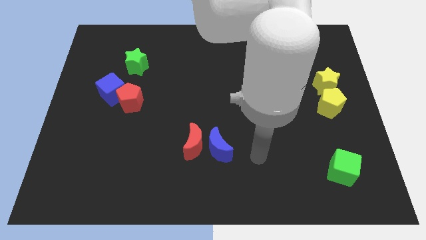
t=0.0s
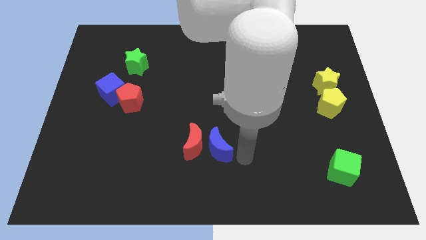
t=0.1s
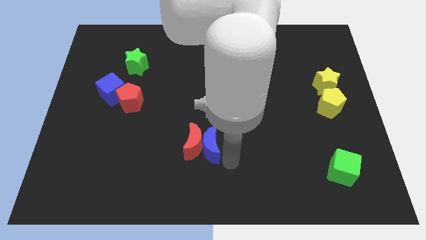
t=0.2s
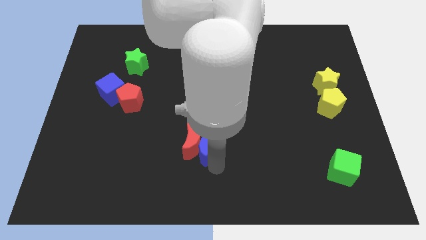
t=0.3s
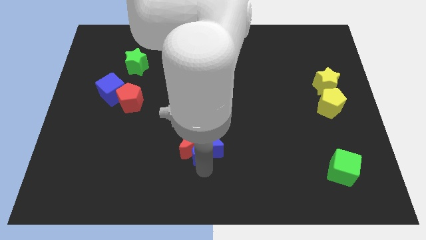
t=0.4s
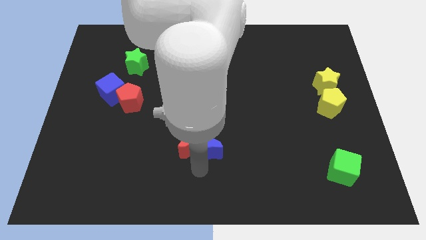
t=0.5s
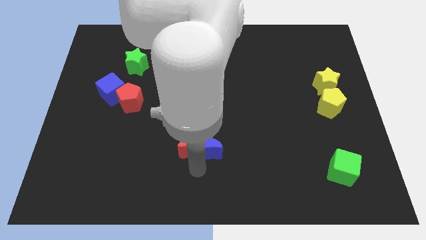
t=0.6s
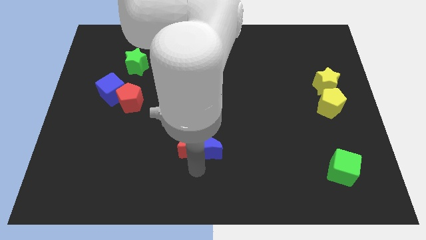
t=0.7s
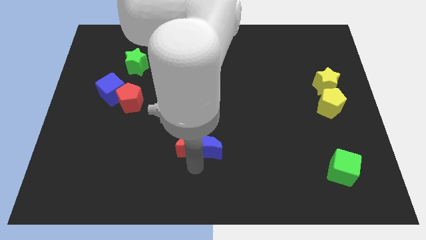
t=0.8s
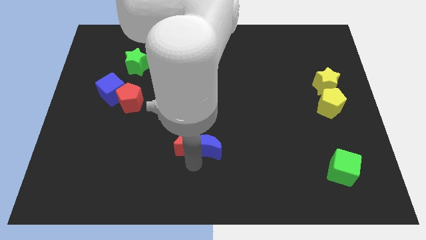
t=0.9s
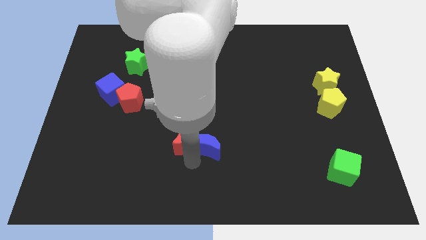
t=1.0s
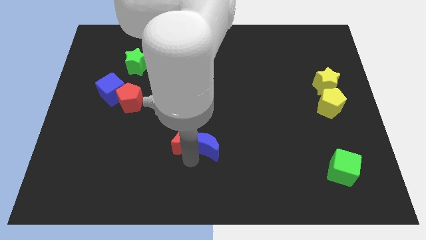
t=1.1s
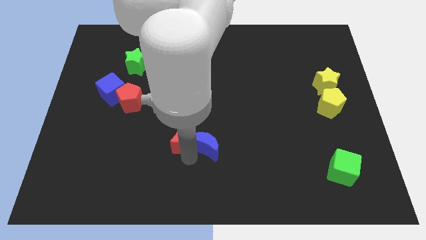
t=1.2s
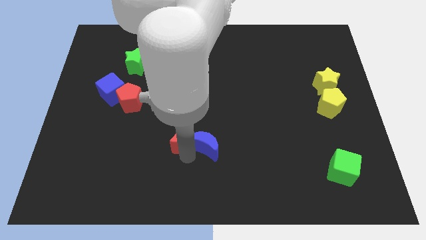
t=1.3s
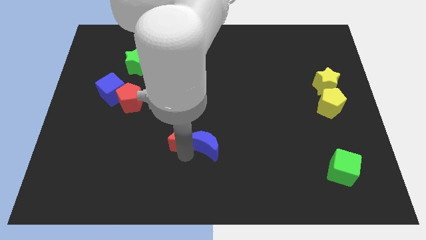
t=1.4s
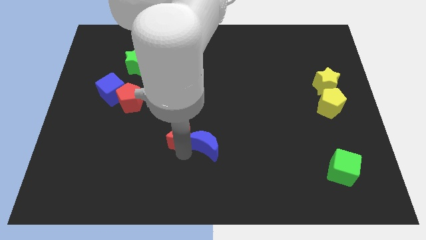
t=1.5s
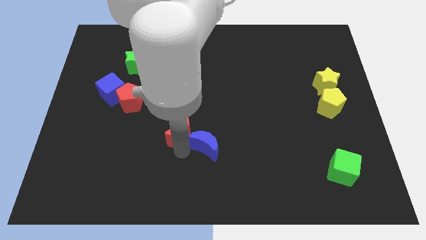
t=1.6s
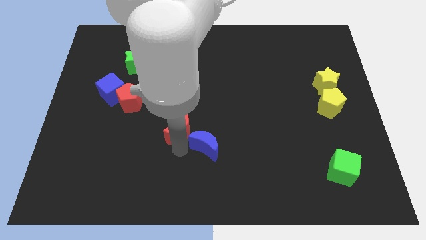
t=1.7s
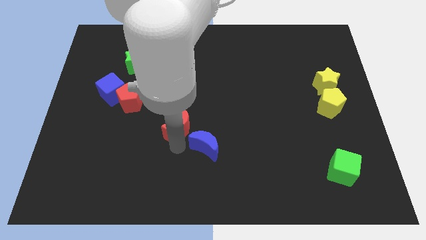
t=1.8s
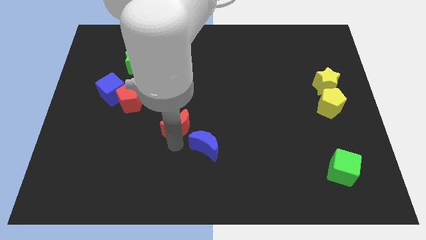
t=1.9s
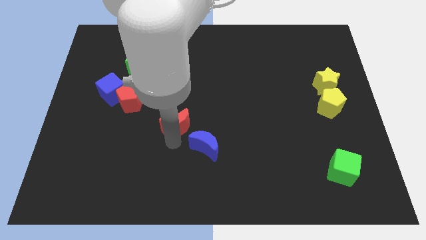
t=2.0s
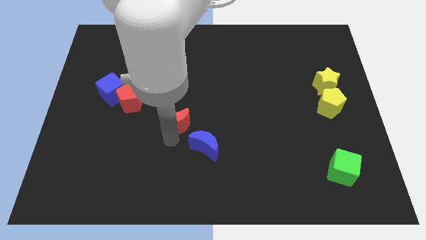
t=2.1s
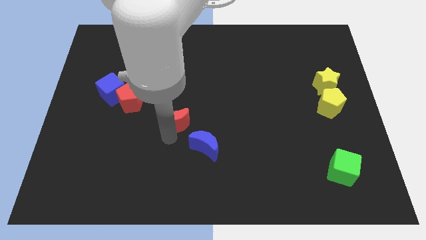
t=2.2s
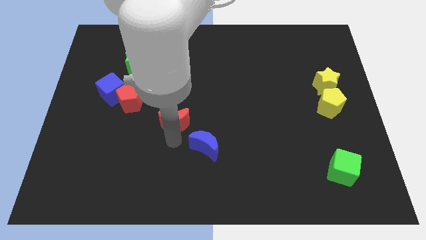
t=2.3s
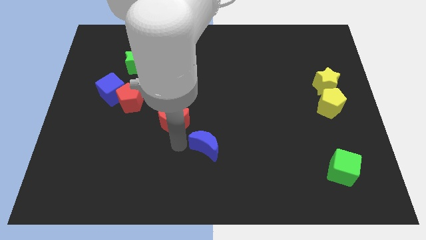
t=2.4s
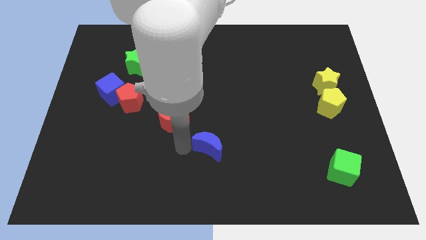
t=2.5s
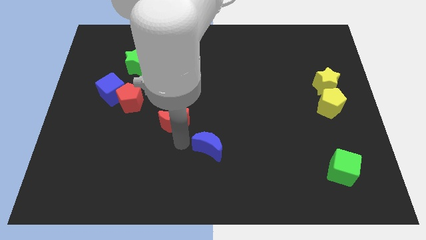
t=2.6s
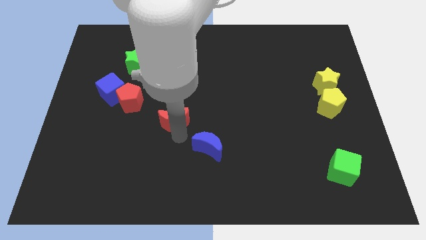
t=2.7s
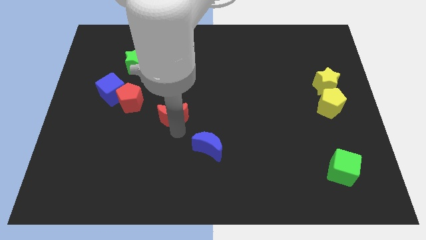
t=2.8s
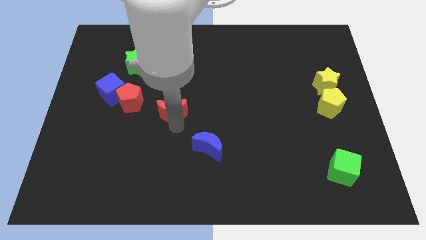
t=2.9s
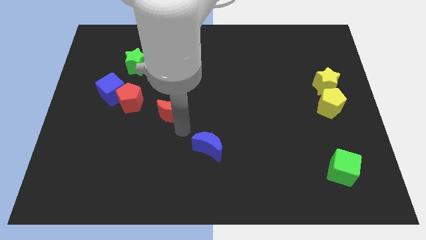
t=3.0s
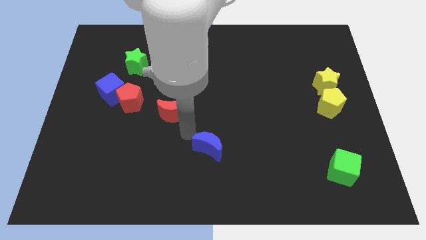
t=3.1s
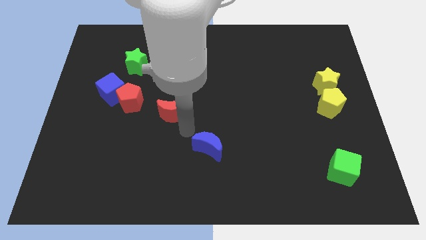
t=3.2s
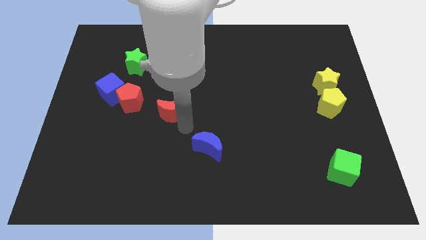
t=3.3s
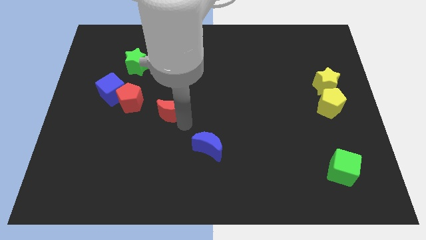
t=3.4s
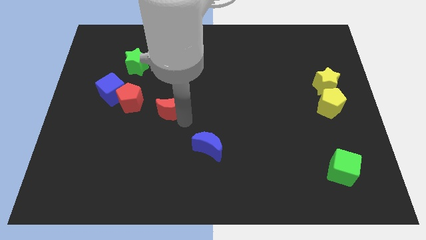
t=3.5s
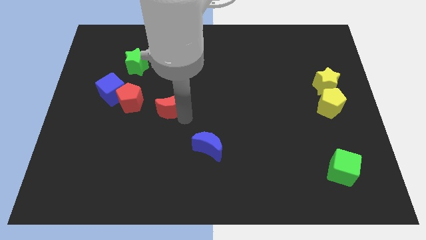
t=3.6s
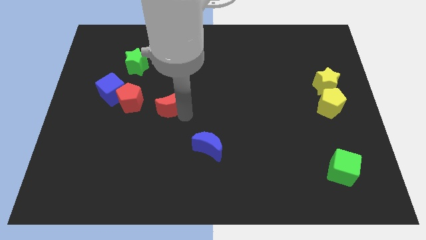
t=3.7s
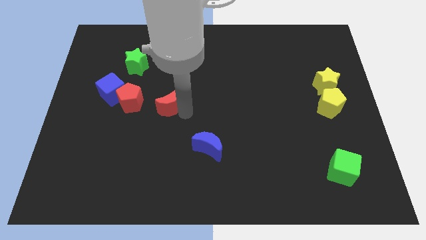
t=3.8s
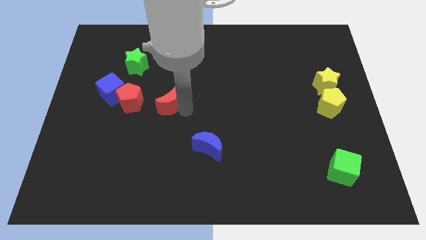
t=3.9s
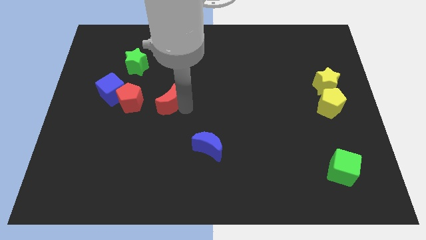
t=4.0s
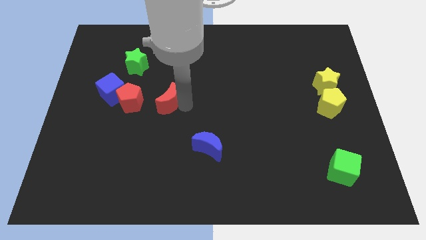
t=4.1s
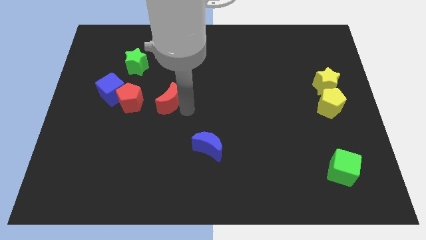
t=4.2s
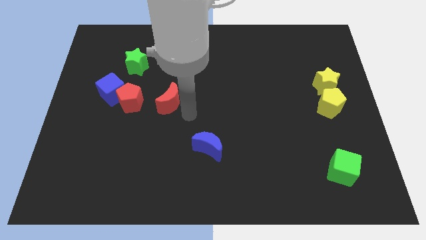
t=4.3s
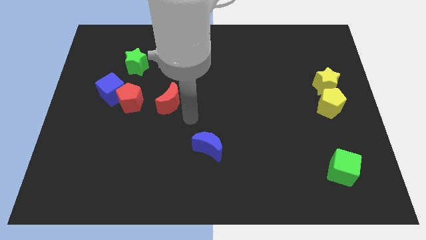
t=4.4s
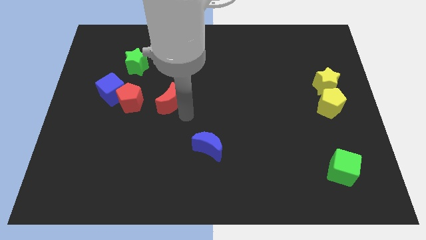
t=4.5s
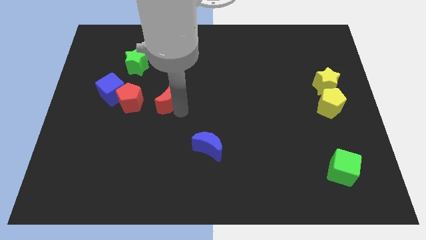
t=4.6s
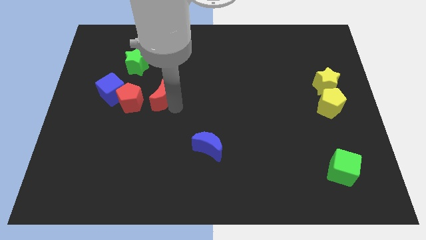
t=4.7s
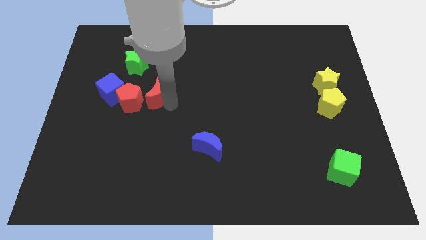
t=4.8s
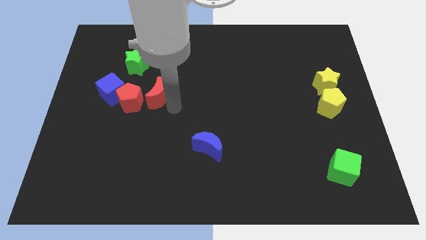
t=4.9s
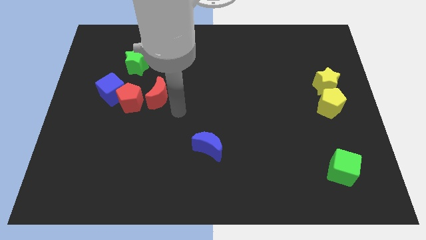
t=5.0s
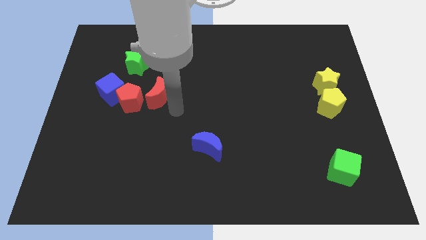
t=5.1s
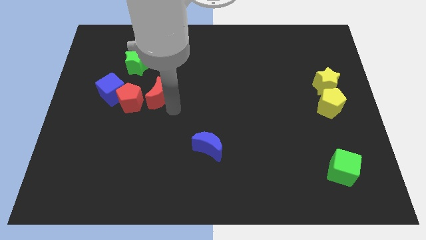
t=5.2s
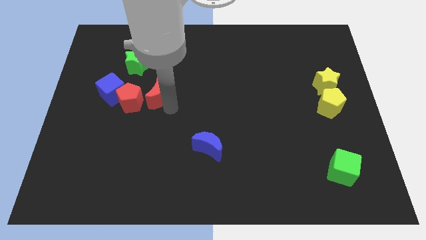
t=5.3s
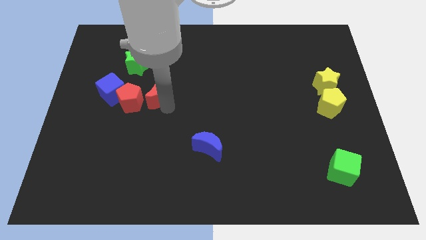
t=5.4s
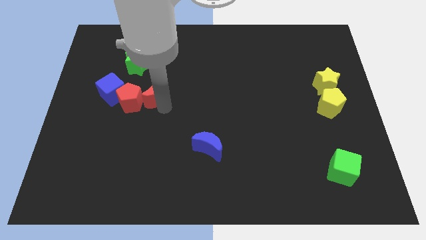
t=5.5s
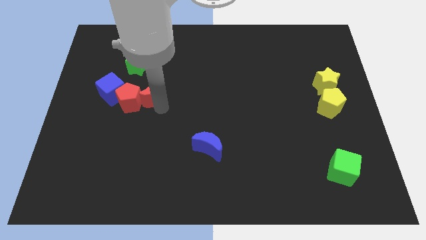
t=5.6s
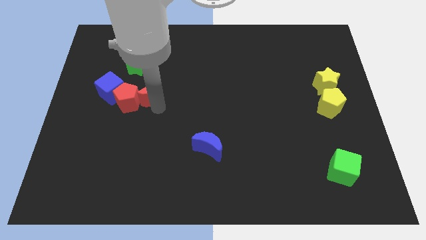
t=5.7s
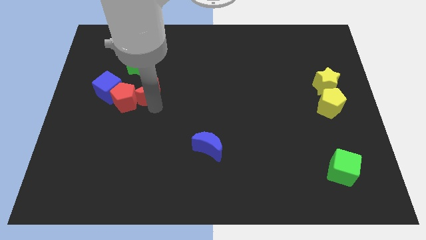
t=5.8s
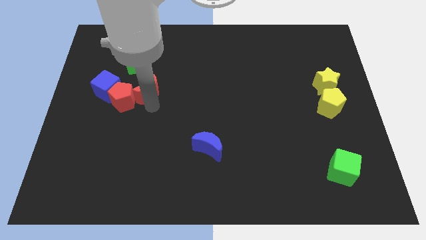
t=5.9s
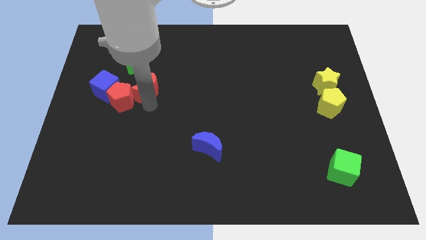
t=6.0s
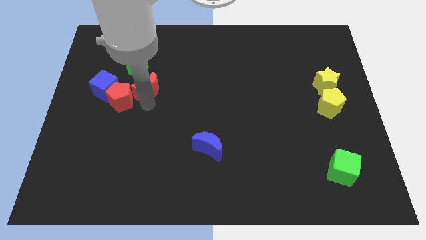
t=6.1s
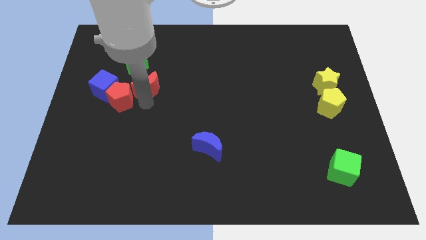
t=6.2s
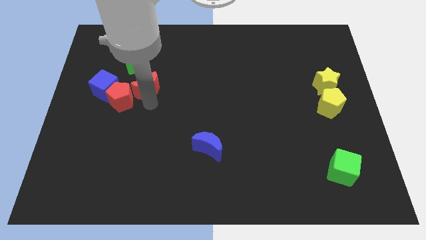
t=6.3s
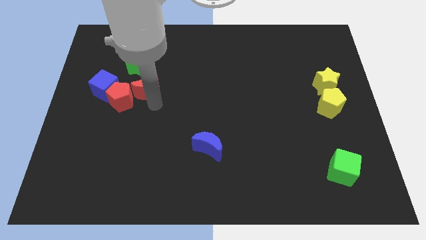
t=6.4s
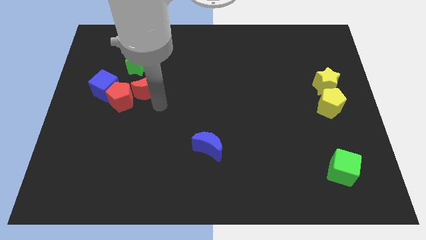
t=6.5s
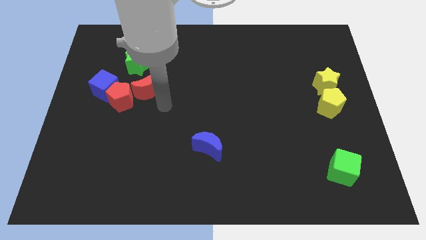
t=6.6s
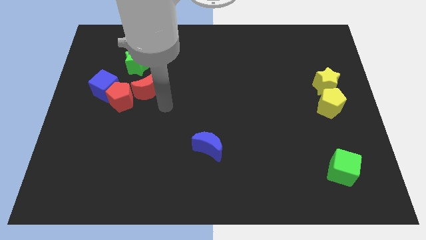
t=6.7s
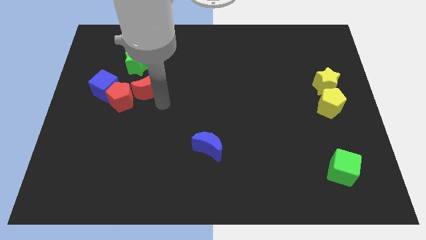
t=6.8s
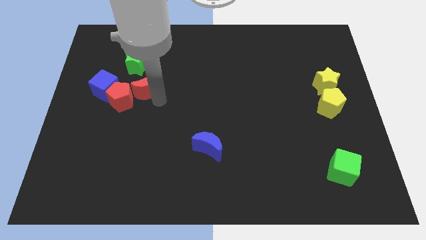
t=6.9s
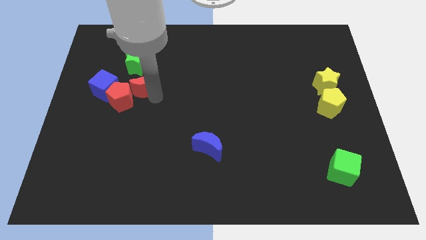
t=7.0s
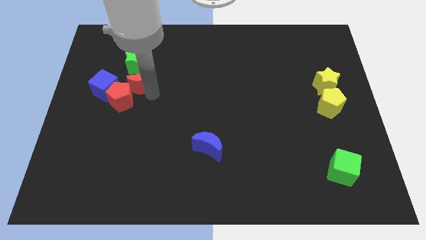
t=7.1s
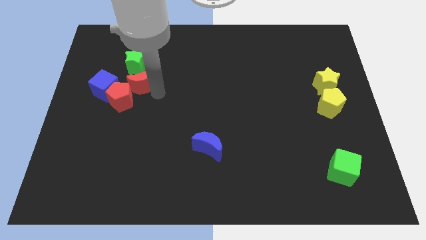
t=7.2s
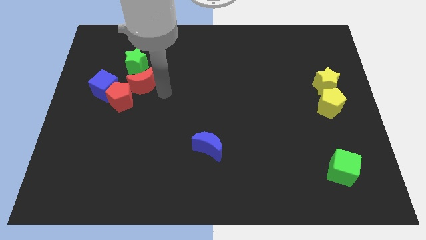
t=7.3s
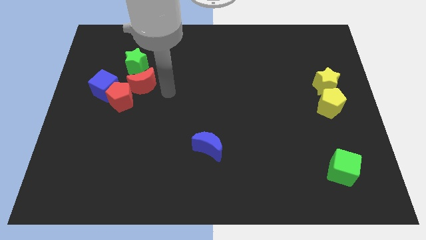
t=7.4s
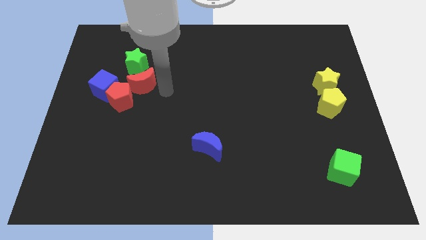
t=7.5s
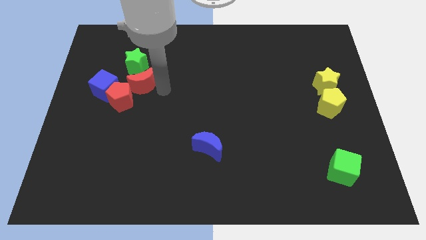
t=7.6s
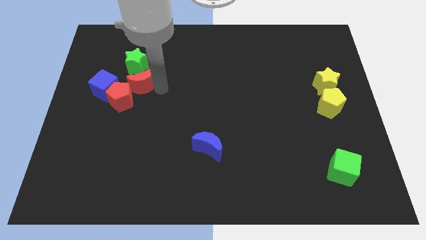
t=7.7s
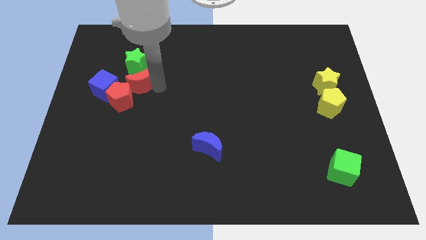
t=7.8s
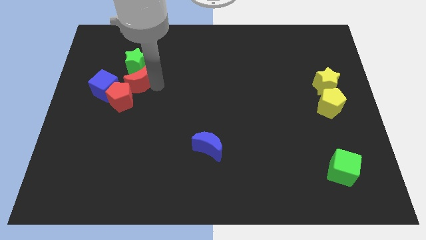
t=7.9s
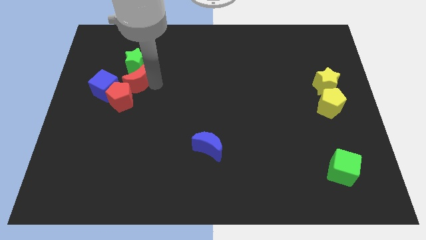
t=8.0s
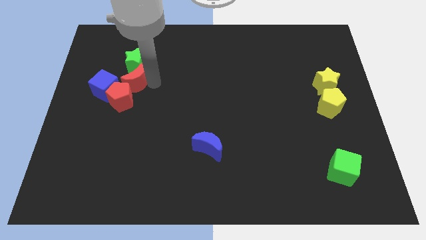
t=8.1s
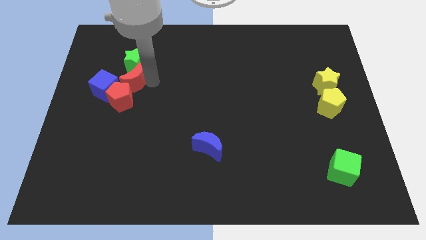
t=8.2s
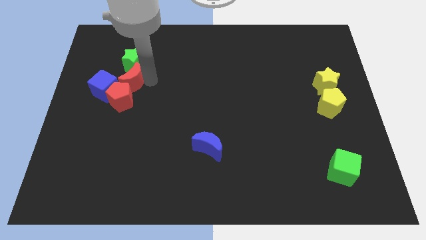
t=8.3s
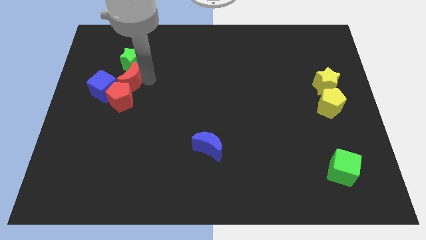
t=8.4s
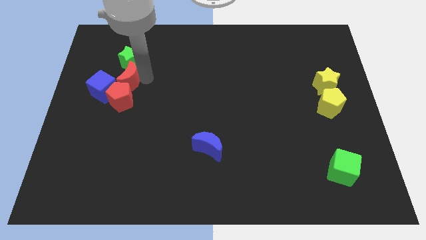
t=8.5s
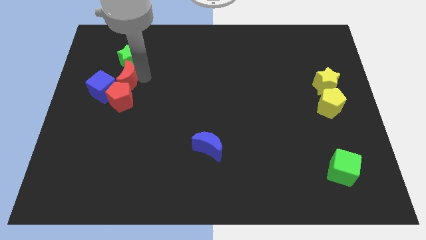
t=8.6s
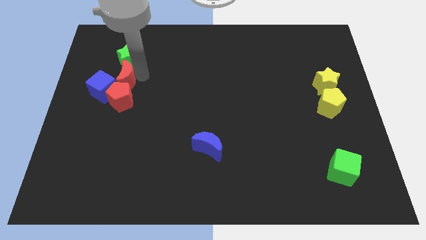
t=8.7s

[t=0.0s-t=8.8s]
push the red moon diagonally up and to the left of the red pentagon
